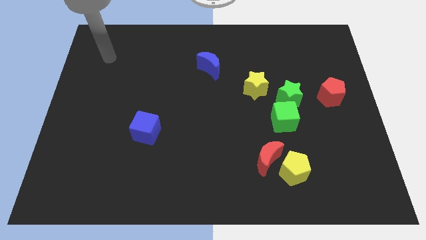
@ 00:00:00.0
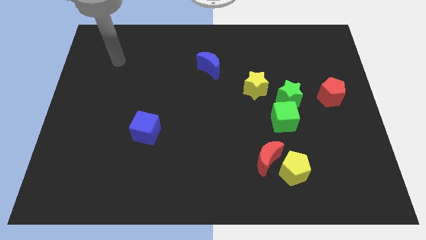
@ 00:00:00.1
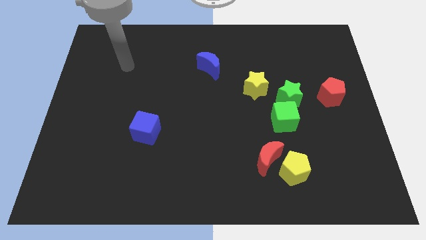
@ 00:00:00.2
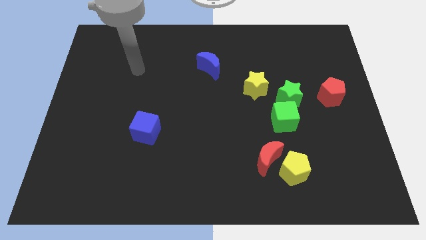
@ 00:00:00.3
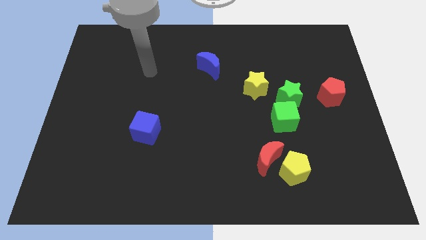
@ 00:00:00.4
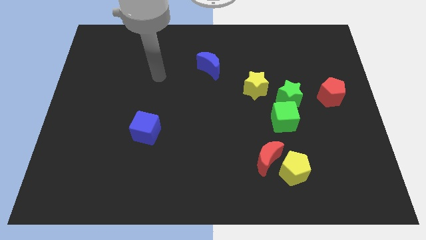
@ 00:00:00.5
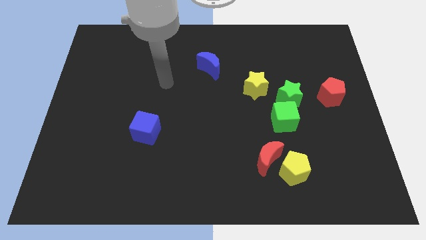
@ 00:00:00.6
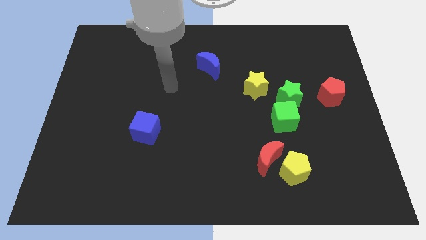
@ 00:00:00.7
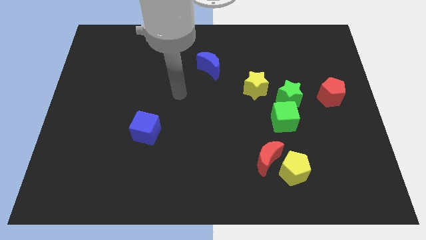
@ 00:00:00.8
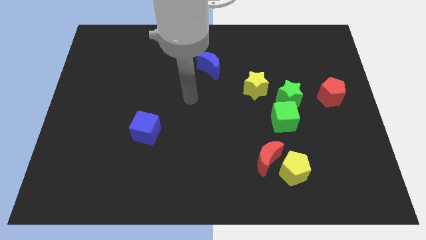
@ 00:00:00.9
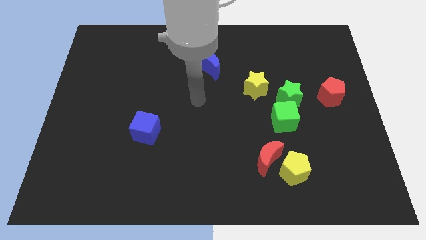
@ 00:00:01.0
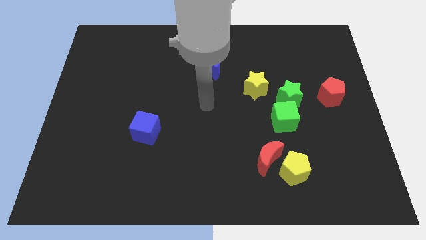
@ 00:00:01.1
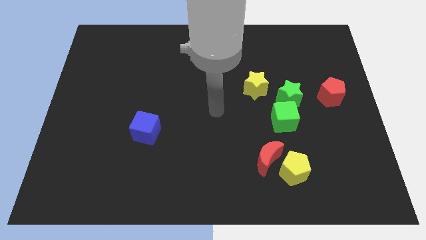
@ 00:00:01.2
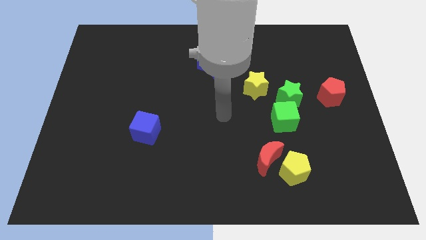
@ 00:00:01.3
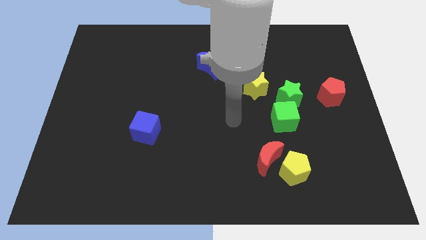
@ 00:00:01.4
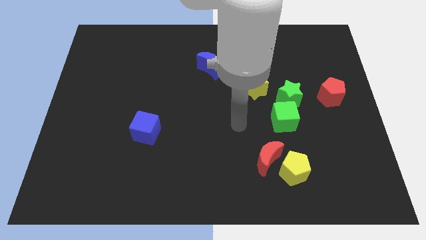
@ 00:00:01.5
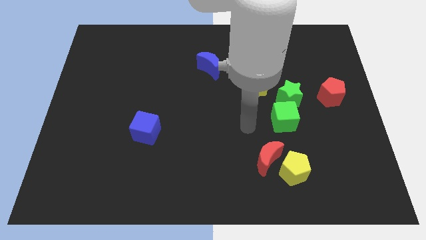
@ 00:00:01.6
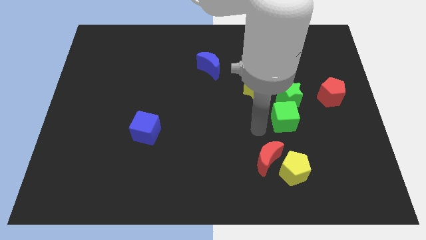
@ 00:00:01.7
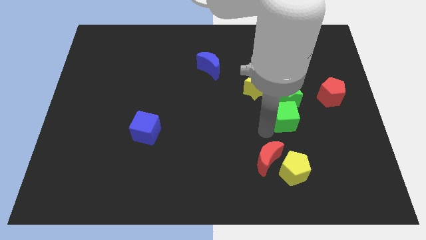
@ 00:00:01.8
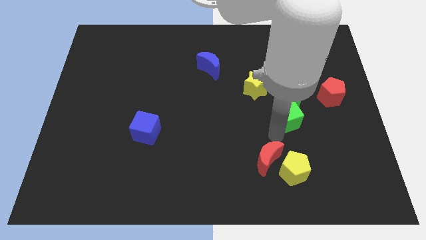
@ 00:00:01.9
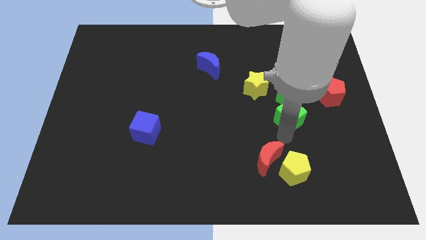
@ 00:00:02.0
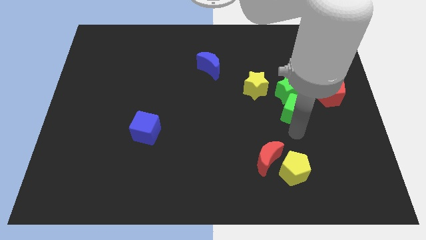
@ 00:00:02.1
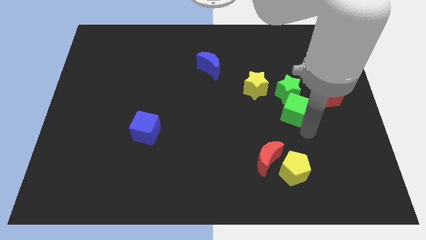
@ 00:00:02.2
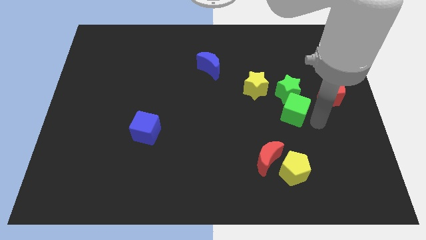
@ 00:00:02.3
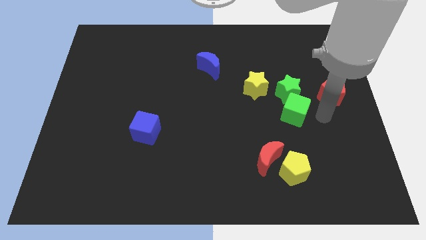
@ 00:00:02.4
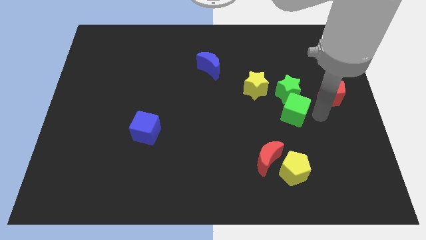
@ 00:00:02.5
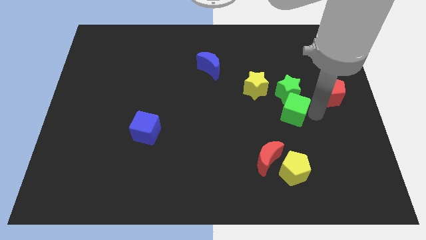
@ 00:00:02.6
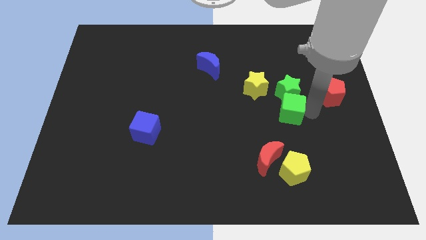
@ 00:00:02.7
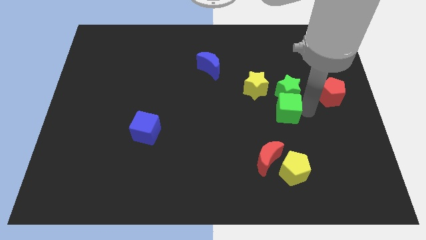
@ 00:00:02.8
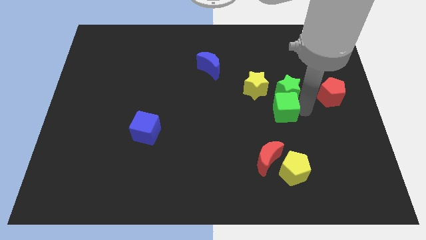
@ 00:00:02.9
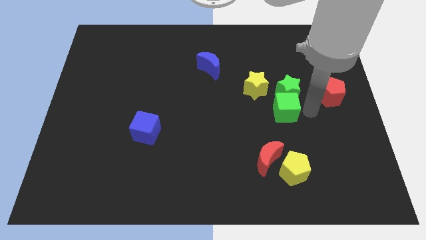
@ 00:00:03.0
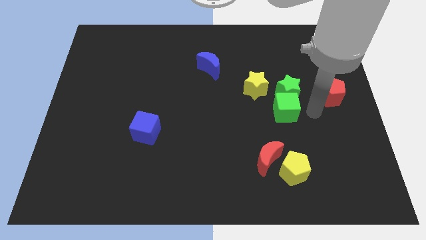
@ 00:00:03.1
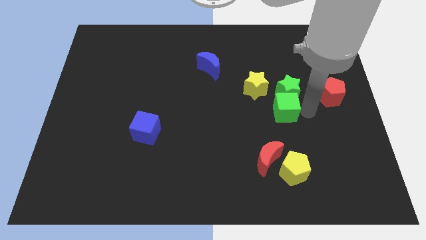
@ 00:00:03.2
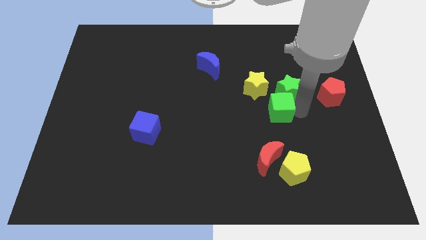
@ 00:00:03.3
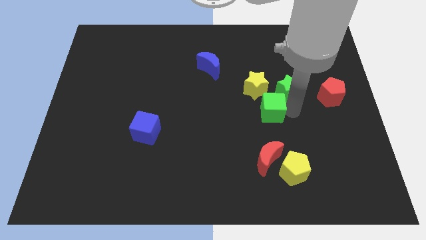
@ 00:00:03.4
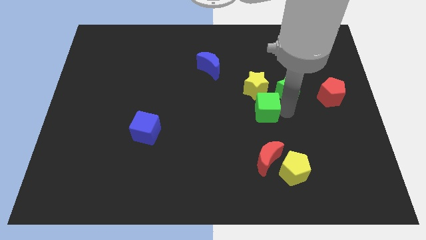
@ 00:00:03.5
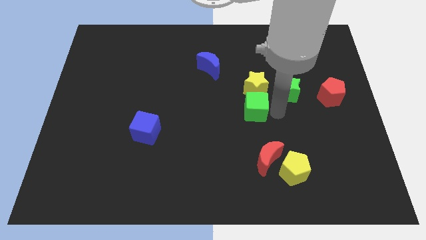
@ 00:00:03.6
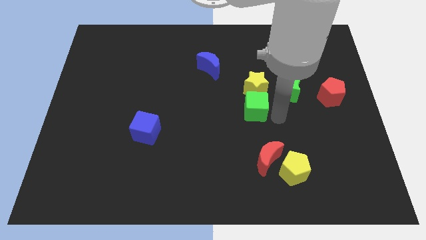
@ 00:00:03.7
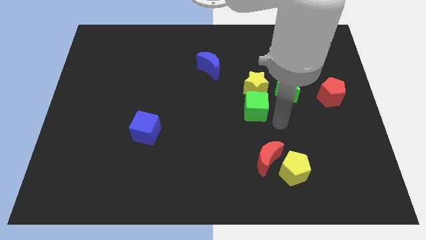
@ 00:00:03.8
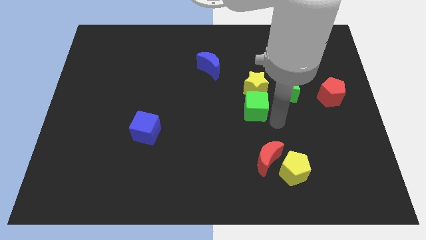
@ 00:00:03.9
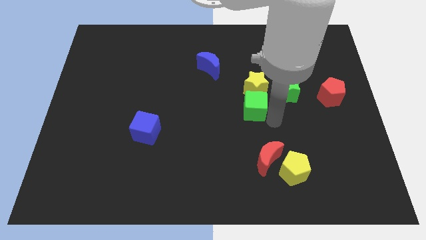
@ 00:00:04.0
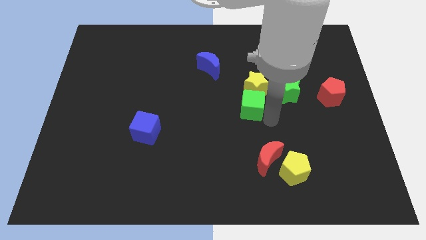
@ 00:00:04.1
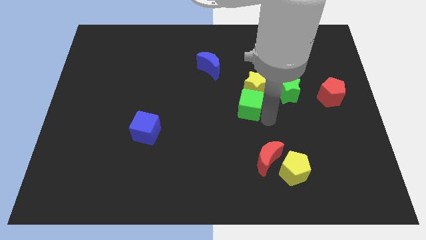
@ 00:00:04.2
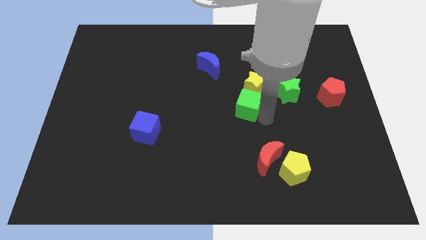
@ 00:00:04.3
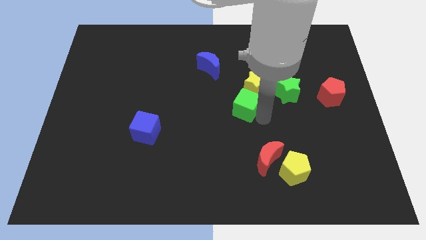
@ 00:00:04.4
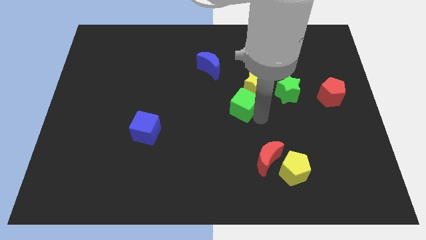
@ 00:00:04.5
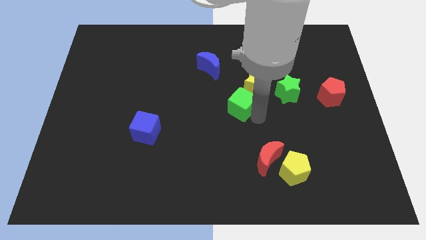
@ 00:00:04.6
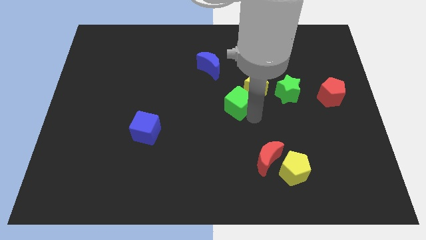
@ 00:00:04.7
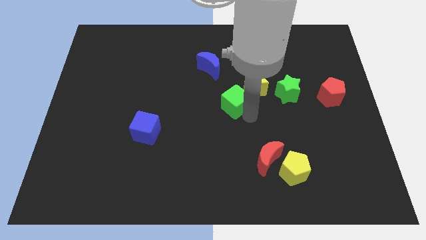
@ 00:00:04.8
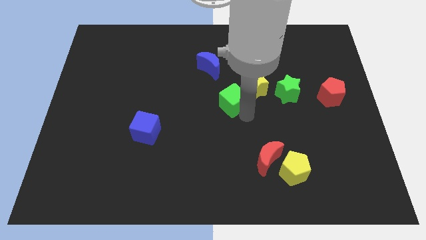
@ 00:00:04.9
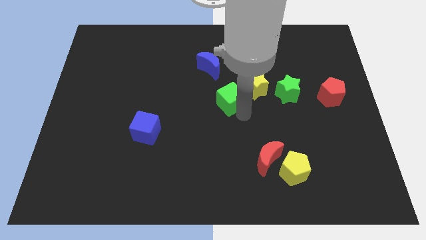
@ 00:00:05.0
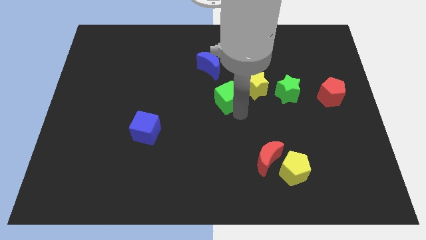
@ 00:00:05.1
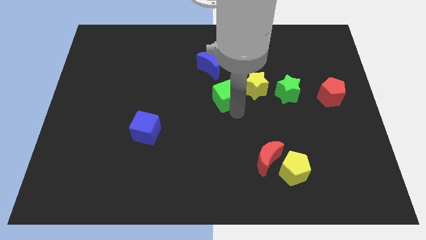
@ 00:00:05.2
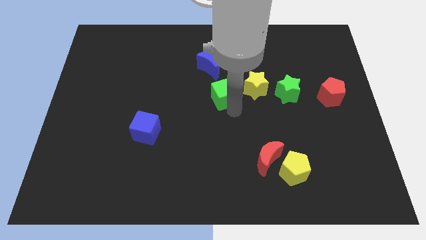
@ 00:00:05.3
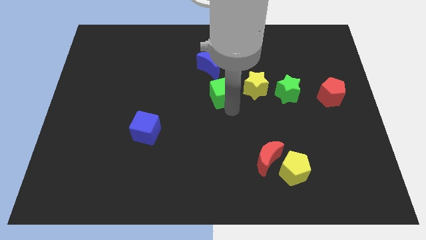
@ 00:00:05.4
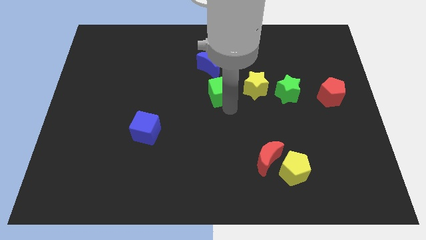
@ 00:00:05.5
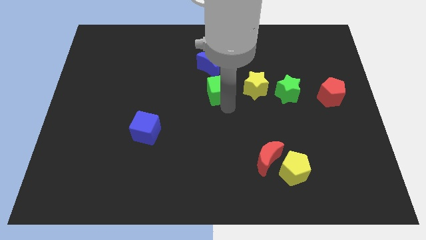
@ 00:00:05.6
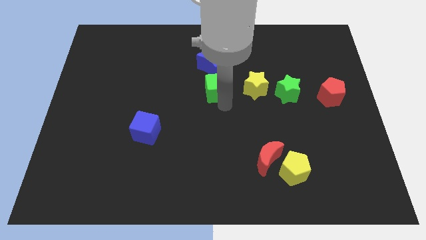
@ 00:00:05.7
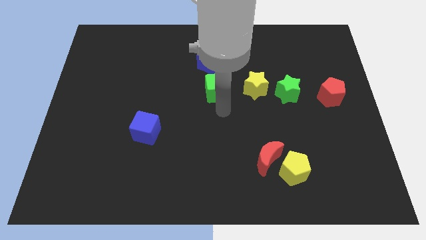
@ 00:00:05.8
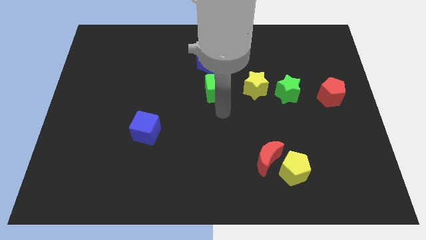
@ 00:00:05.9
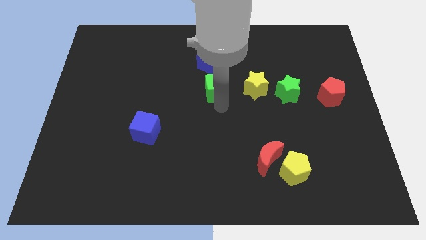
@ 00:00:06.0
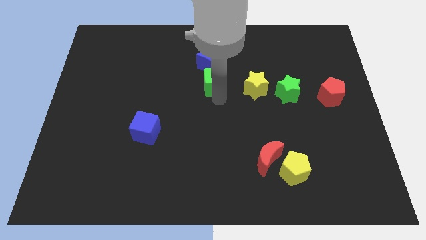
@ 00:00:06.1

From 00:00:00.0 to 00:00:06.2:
slide the green cube close to the blue moon

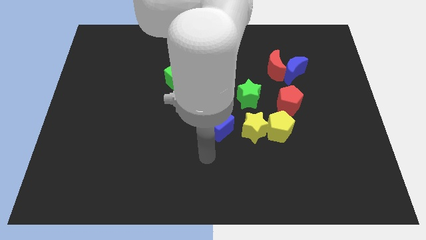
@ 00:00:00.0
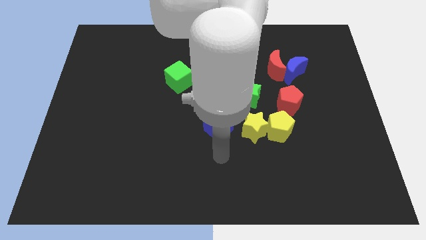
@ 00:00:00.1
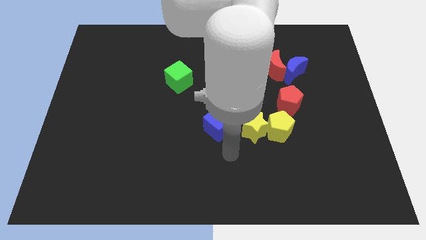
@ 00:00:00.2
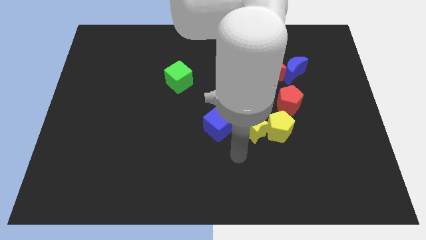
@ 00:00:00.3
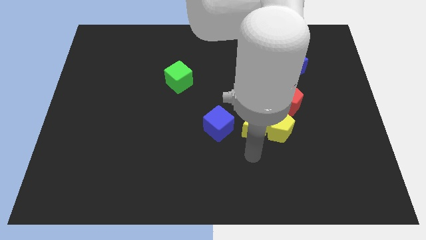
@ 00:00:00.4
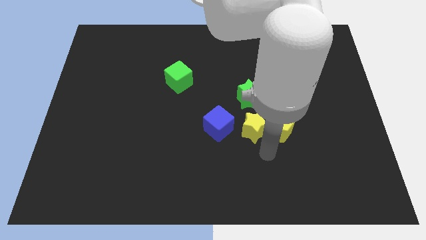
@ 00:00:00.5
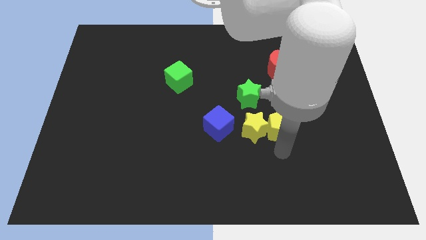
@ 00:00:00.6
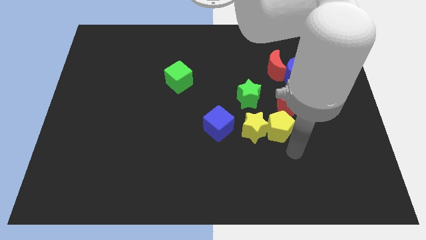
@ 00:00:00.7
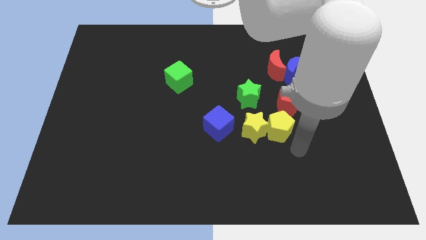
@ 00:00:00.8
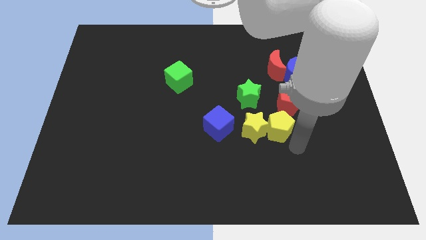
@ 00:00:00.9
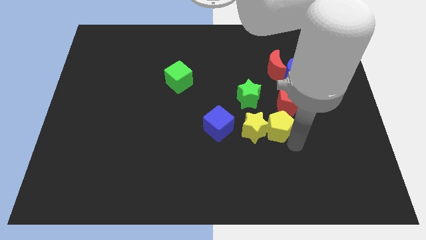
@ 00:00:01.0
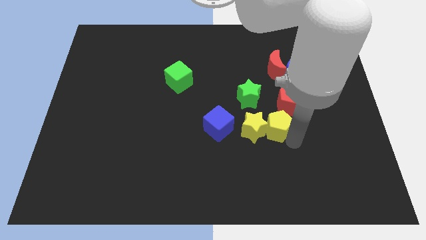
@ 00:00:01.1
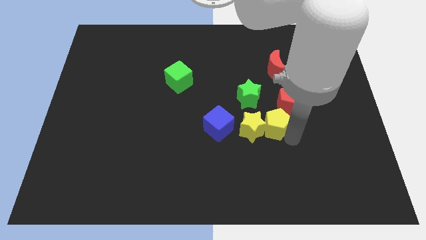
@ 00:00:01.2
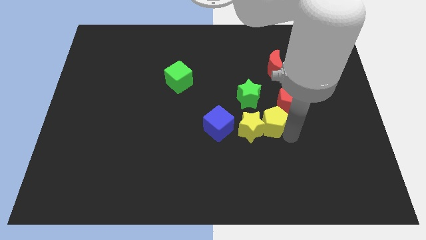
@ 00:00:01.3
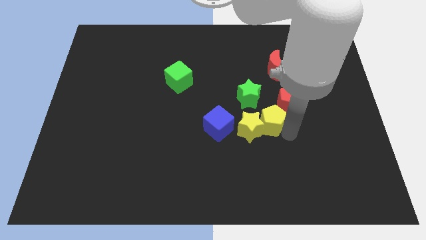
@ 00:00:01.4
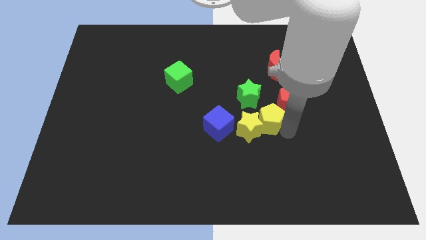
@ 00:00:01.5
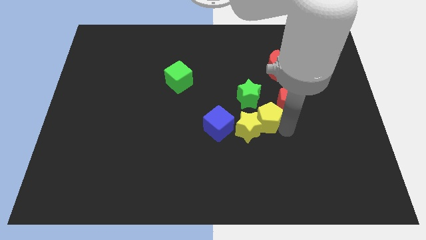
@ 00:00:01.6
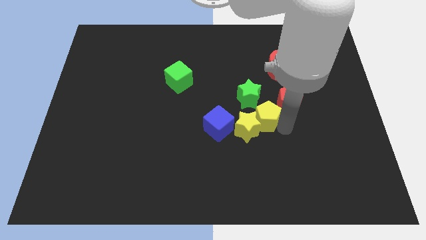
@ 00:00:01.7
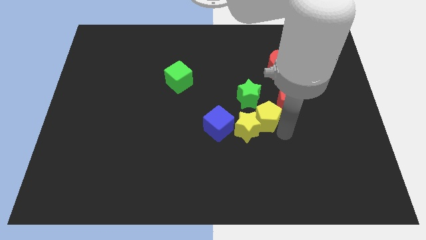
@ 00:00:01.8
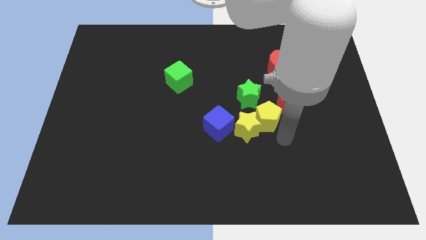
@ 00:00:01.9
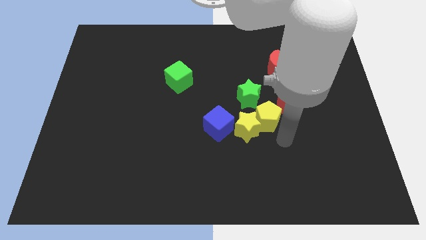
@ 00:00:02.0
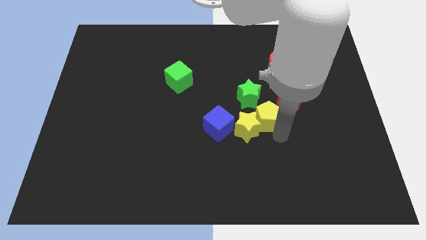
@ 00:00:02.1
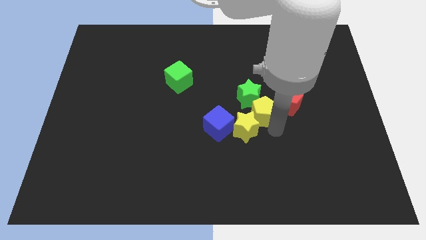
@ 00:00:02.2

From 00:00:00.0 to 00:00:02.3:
move the yellow pentagon towards the green star
